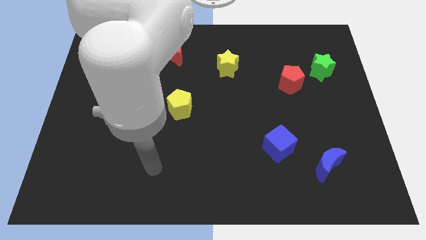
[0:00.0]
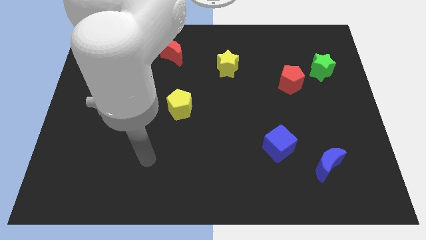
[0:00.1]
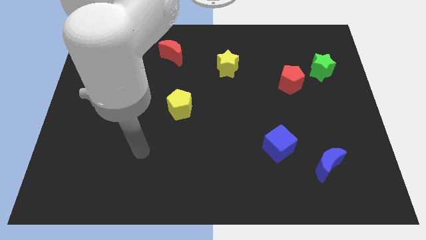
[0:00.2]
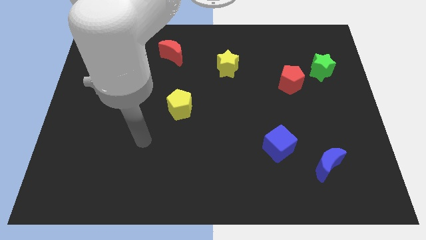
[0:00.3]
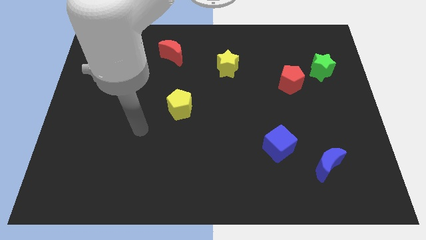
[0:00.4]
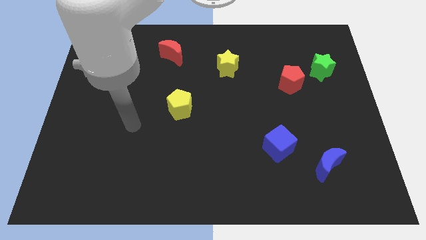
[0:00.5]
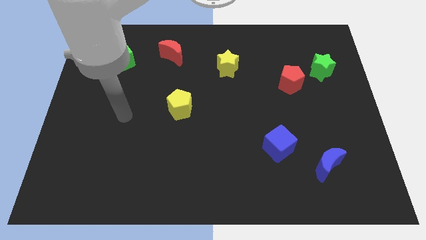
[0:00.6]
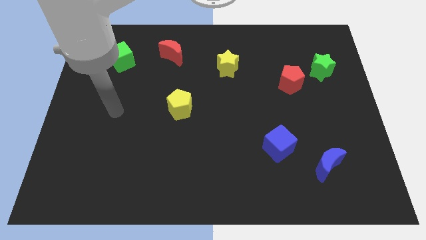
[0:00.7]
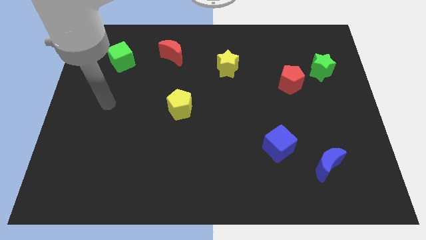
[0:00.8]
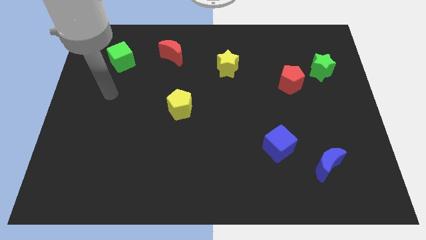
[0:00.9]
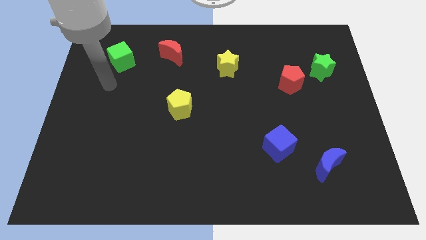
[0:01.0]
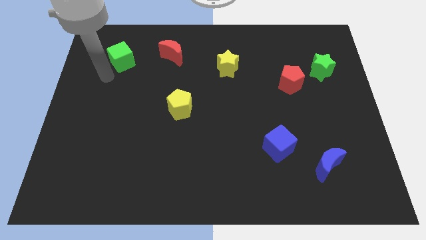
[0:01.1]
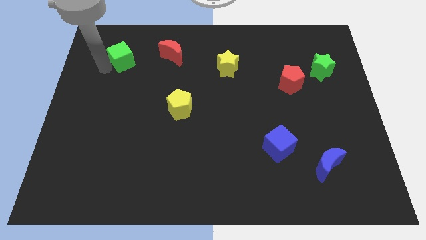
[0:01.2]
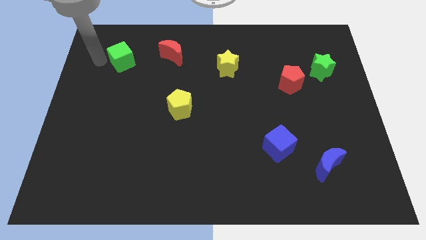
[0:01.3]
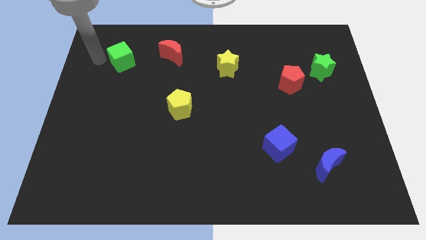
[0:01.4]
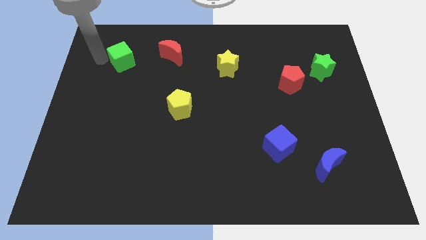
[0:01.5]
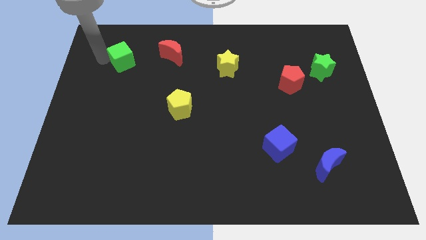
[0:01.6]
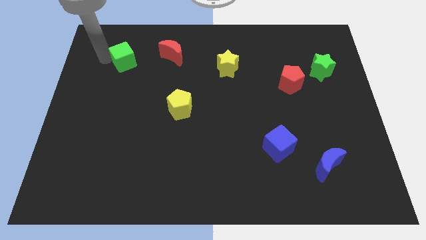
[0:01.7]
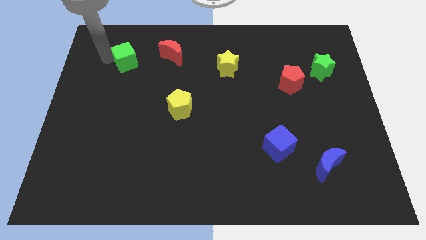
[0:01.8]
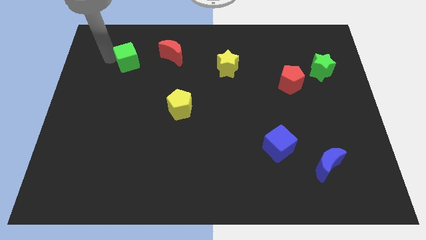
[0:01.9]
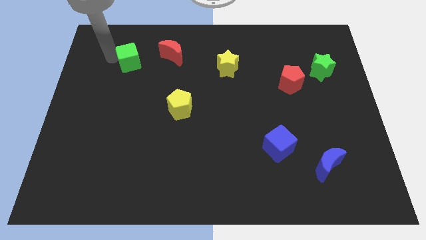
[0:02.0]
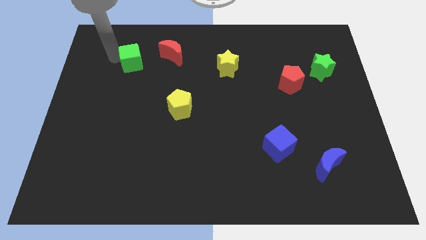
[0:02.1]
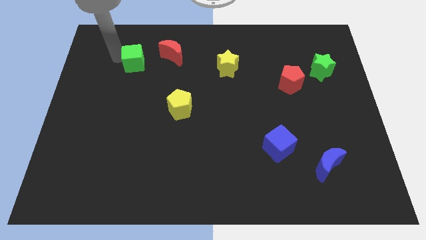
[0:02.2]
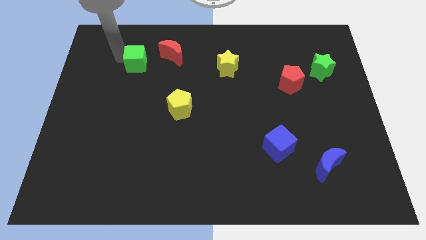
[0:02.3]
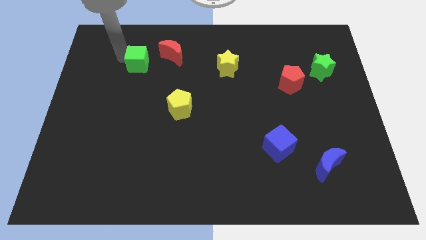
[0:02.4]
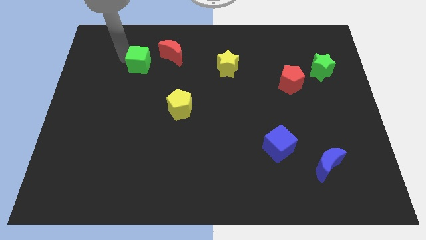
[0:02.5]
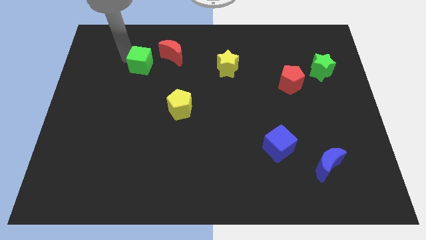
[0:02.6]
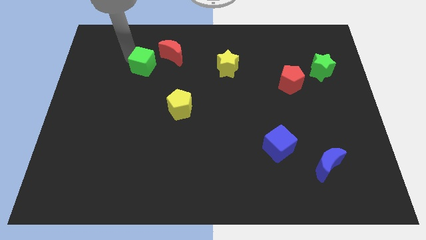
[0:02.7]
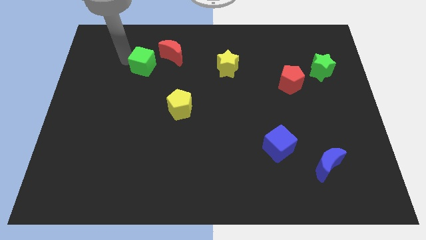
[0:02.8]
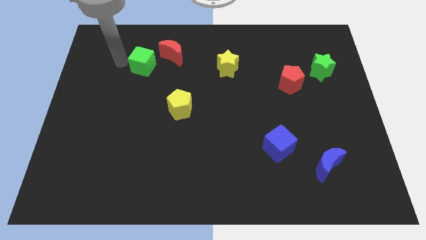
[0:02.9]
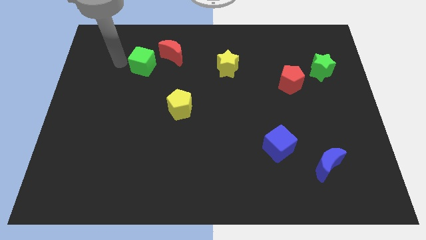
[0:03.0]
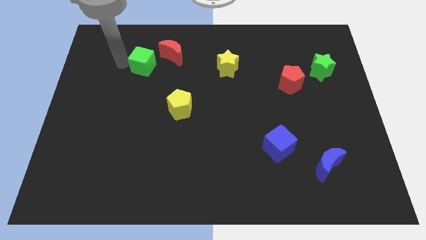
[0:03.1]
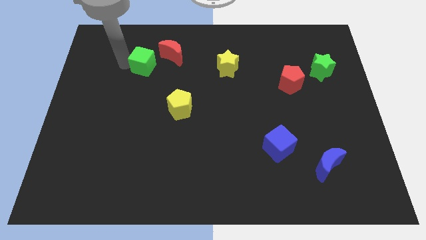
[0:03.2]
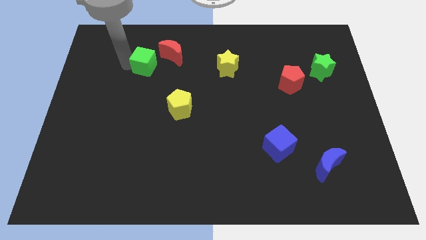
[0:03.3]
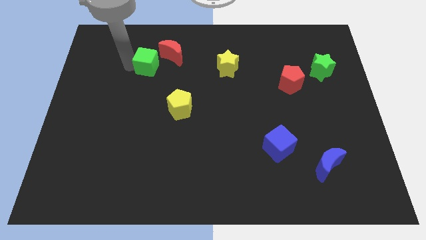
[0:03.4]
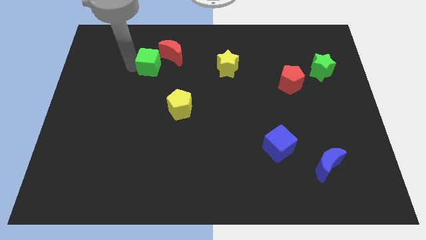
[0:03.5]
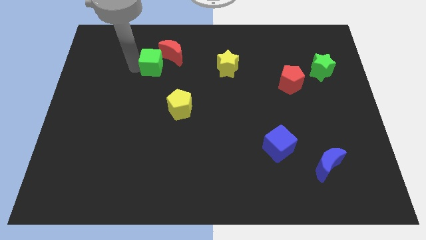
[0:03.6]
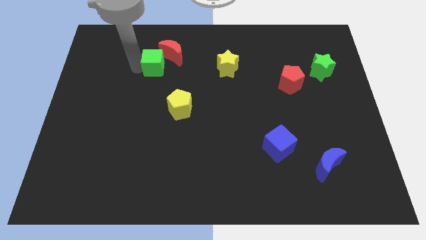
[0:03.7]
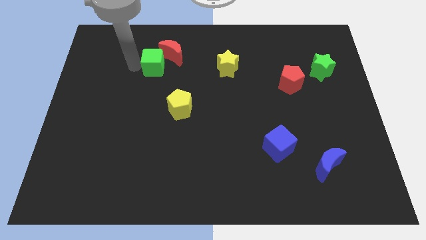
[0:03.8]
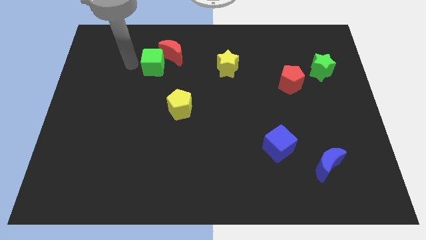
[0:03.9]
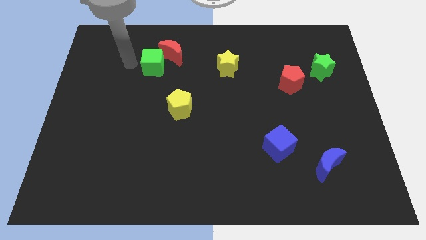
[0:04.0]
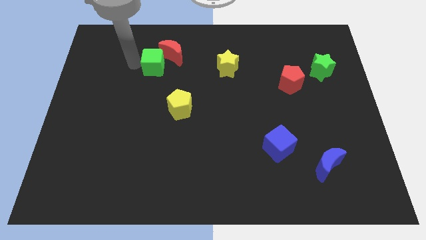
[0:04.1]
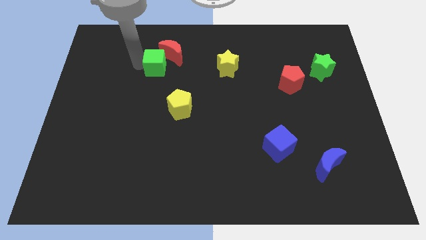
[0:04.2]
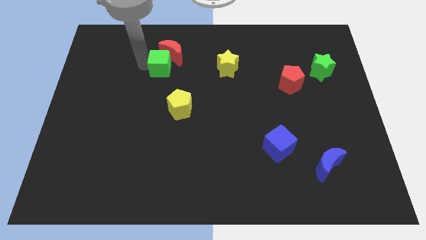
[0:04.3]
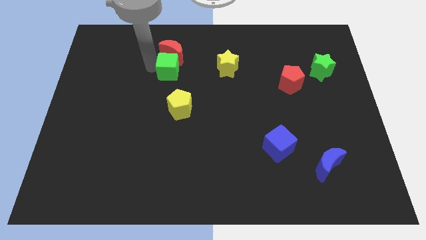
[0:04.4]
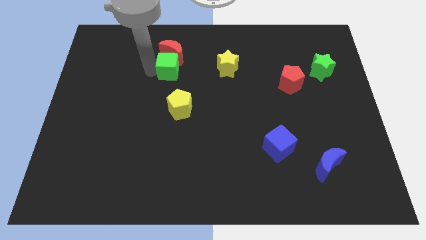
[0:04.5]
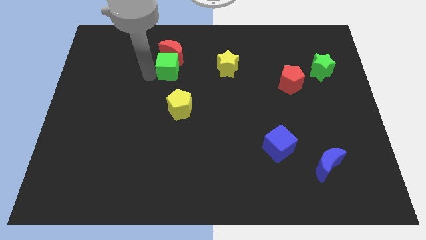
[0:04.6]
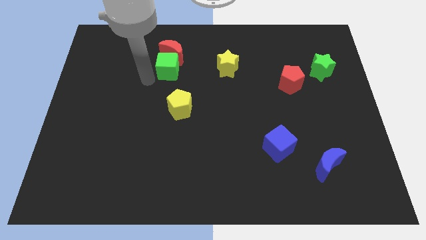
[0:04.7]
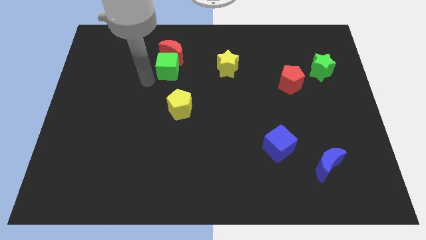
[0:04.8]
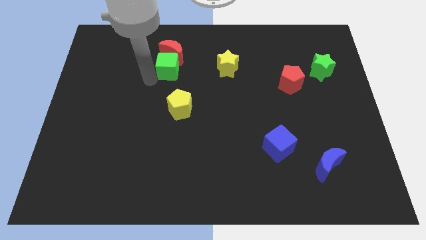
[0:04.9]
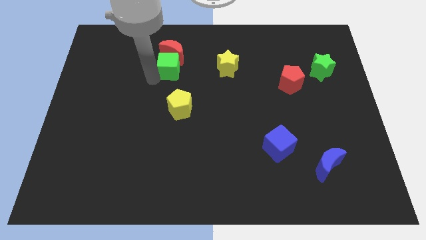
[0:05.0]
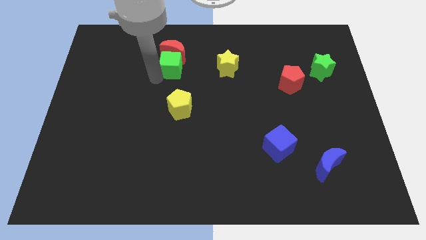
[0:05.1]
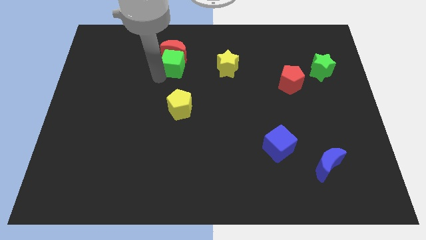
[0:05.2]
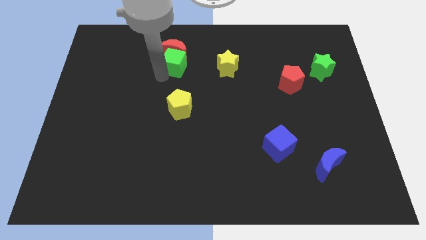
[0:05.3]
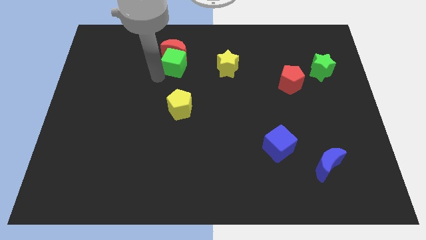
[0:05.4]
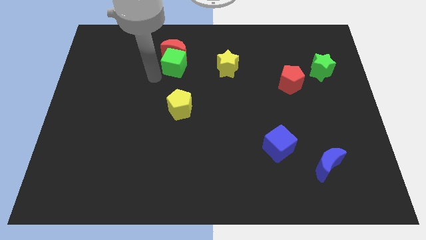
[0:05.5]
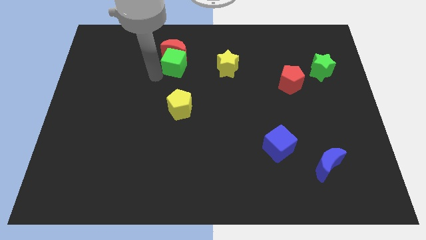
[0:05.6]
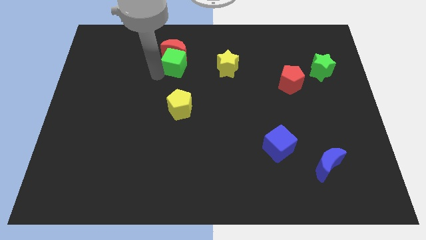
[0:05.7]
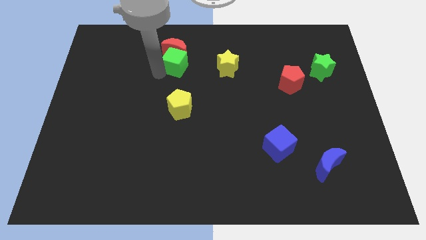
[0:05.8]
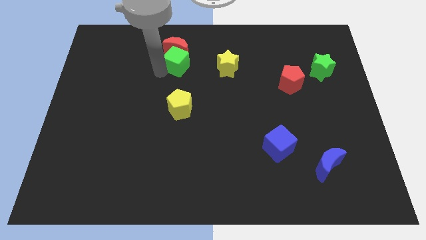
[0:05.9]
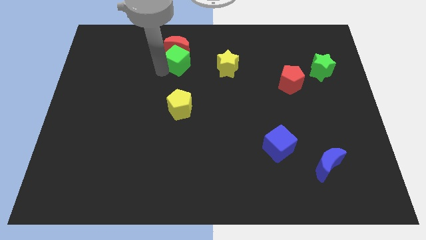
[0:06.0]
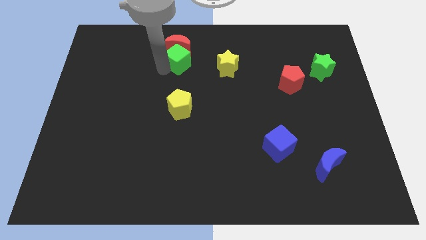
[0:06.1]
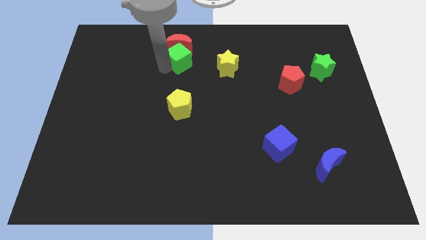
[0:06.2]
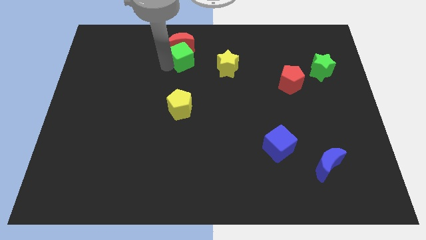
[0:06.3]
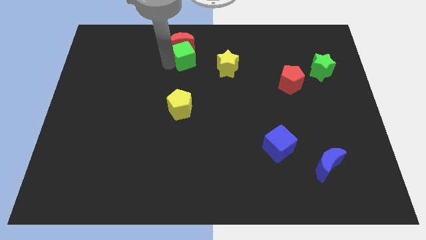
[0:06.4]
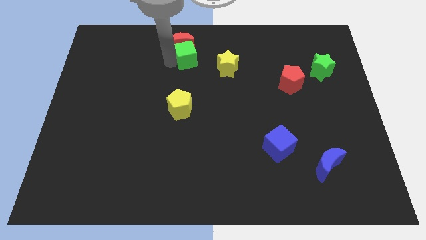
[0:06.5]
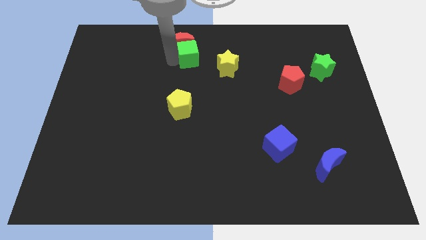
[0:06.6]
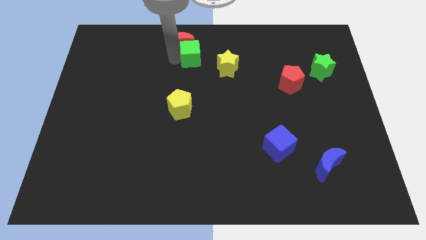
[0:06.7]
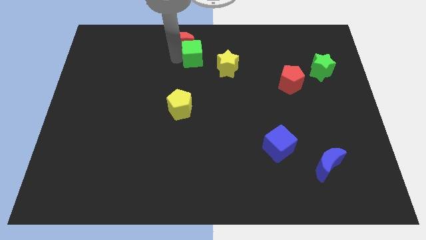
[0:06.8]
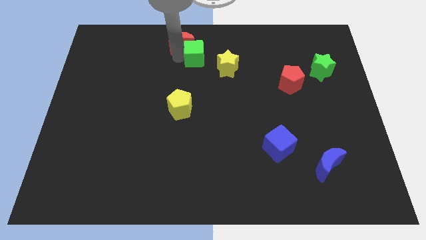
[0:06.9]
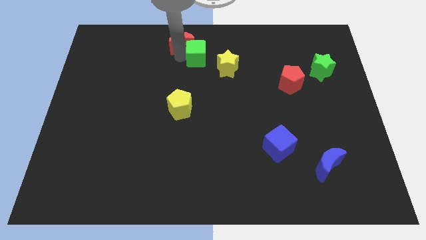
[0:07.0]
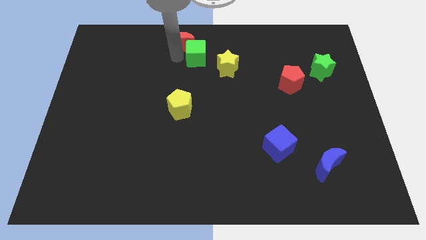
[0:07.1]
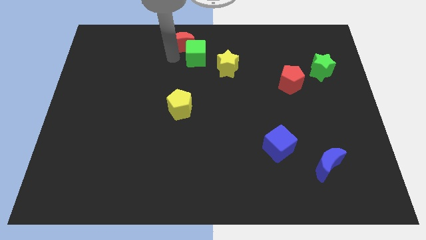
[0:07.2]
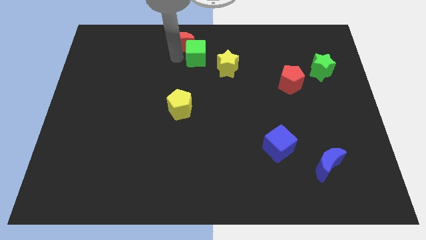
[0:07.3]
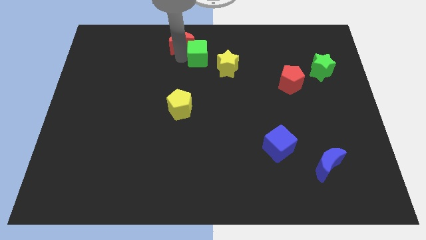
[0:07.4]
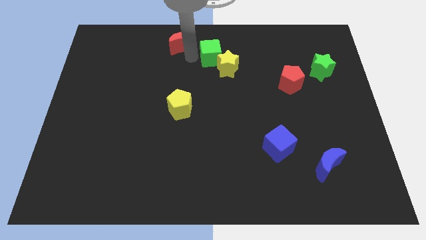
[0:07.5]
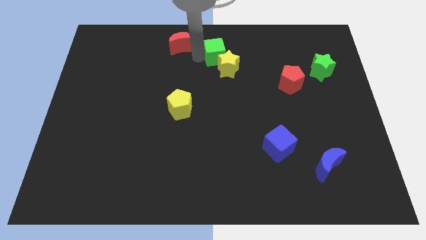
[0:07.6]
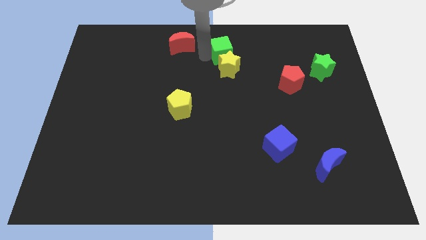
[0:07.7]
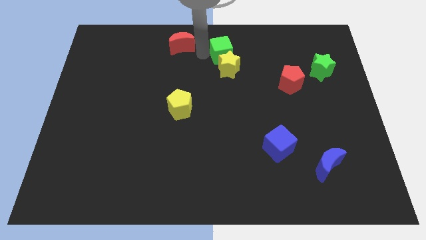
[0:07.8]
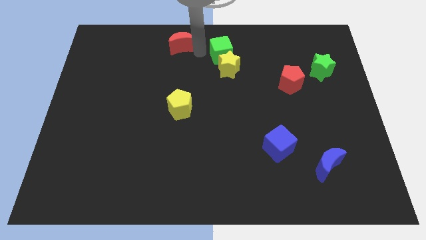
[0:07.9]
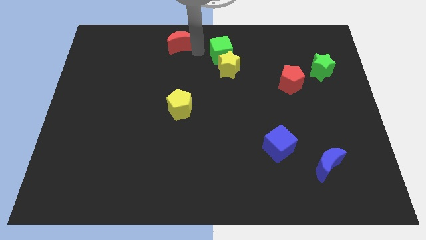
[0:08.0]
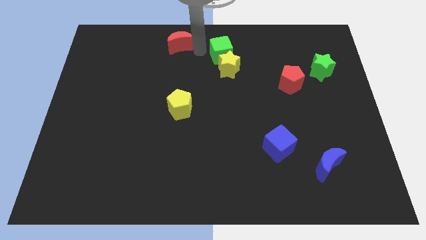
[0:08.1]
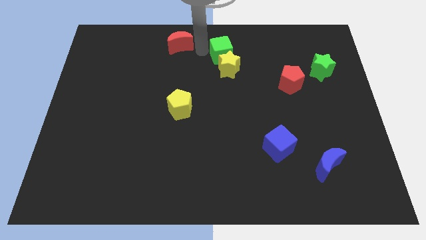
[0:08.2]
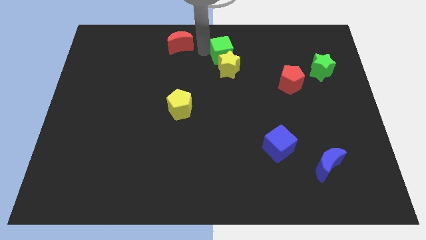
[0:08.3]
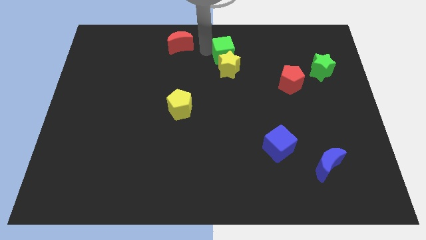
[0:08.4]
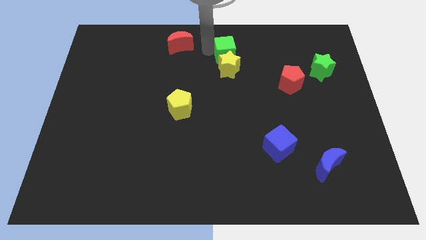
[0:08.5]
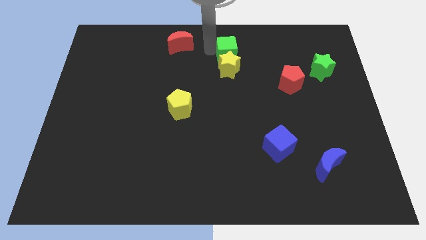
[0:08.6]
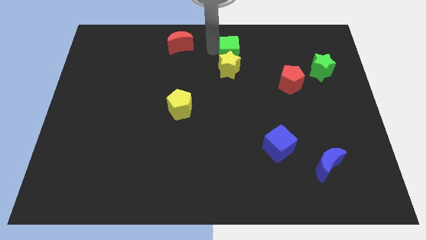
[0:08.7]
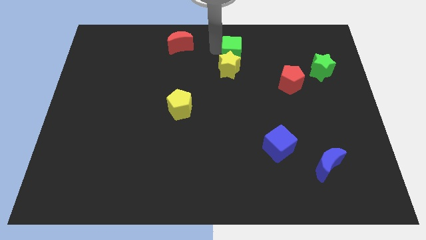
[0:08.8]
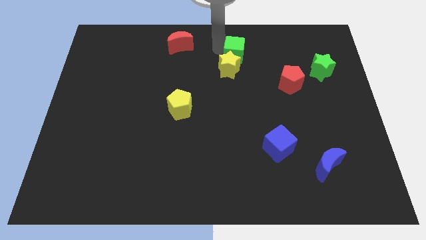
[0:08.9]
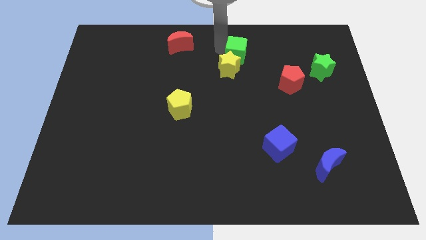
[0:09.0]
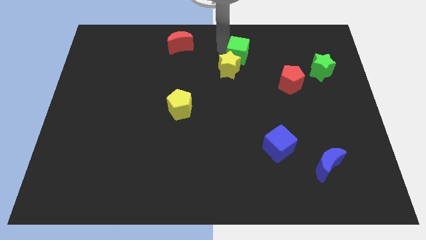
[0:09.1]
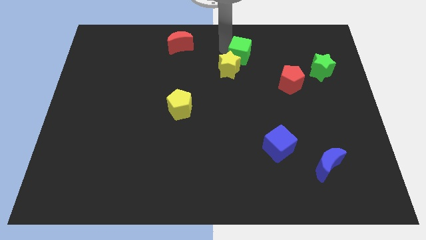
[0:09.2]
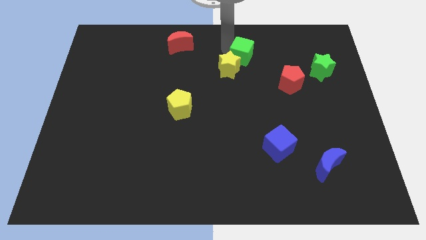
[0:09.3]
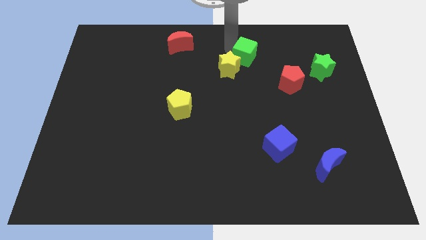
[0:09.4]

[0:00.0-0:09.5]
put the green cube right of the yellow star
